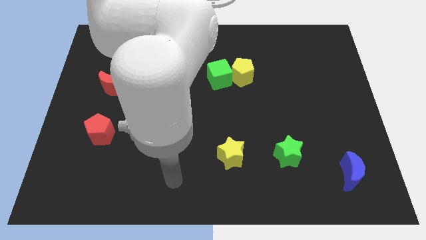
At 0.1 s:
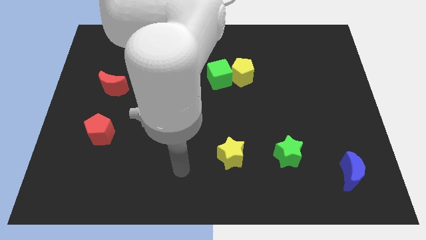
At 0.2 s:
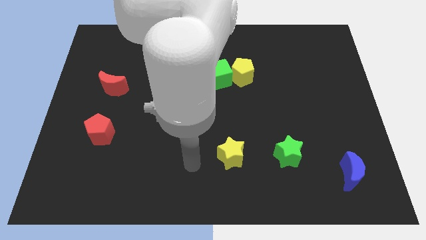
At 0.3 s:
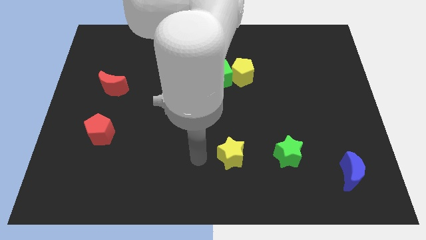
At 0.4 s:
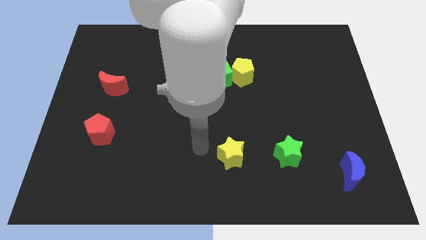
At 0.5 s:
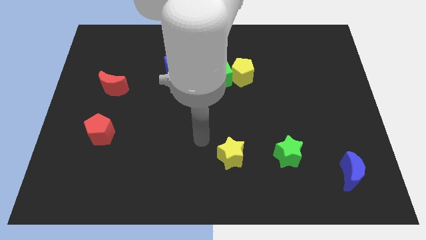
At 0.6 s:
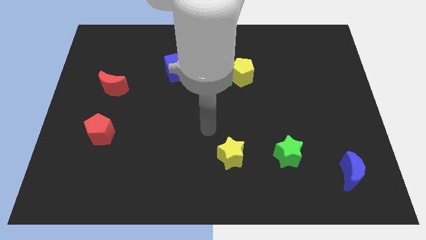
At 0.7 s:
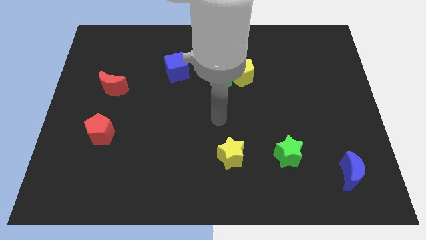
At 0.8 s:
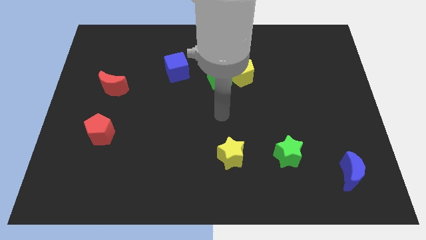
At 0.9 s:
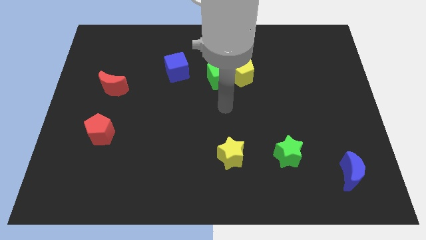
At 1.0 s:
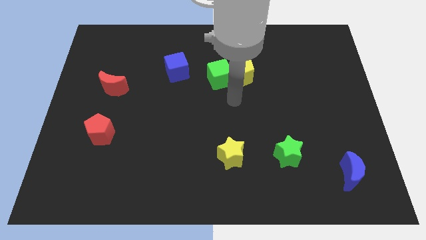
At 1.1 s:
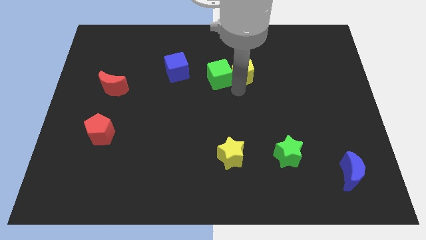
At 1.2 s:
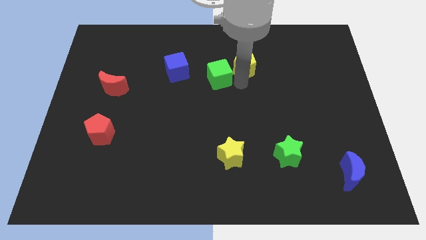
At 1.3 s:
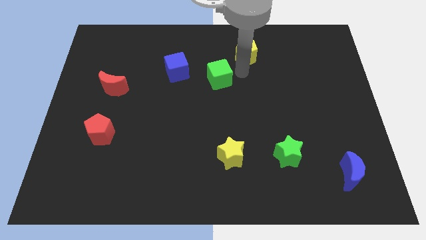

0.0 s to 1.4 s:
pull the green cube apart from the yellow pentagon

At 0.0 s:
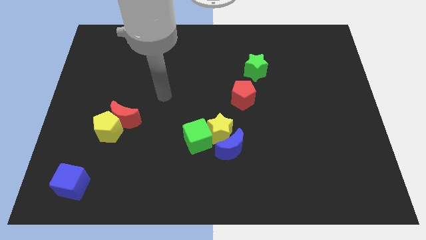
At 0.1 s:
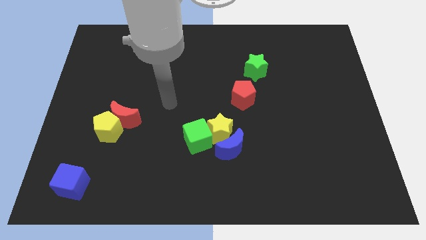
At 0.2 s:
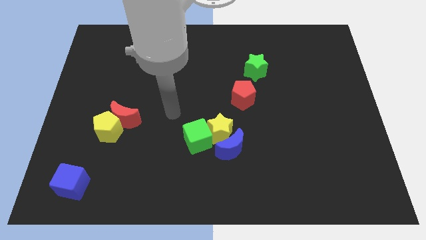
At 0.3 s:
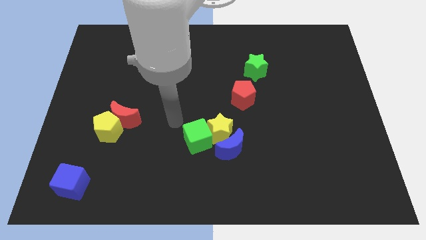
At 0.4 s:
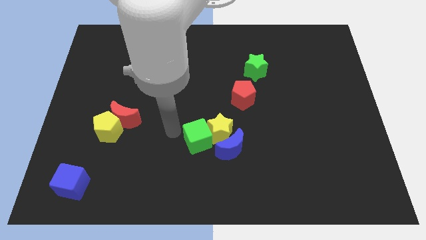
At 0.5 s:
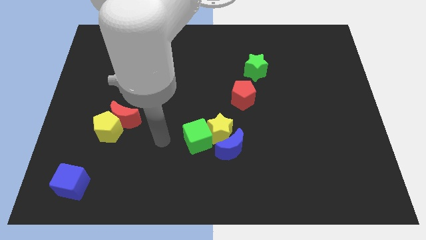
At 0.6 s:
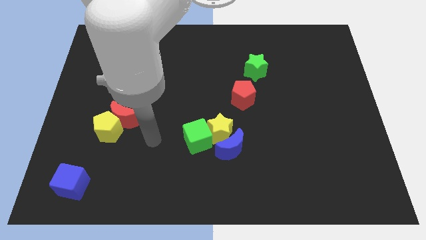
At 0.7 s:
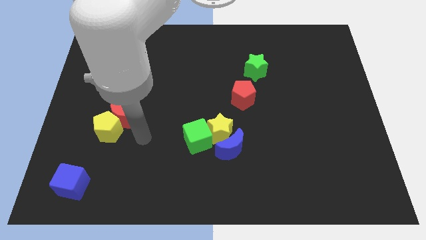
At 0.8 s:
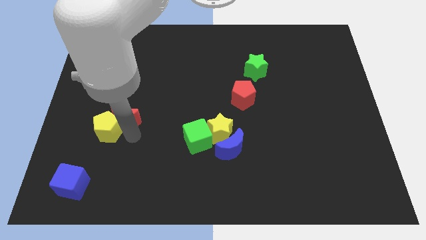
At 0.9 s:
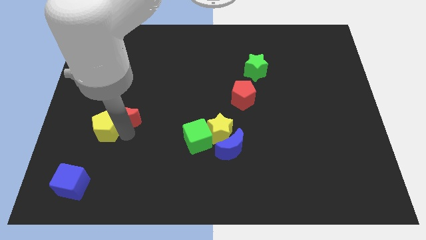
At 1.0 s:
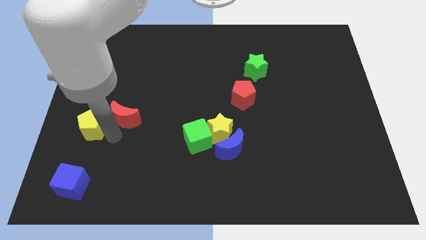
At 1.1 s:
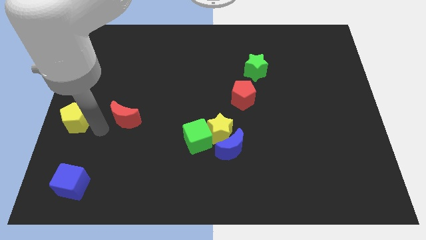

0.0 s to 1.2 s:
move the red moon away from the yellow pentagon

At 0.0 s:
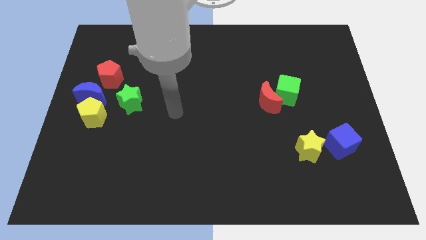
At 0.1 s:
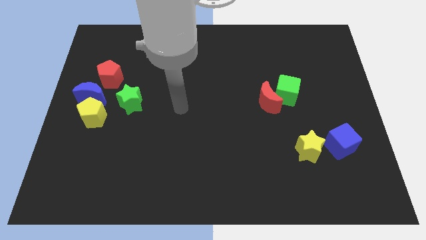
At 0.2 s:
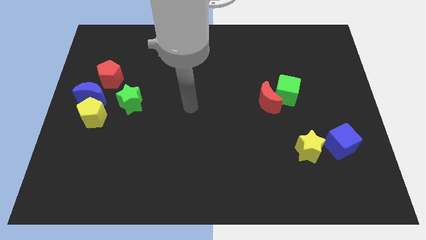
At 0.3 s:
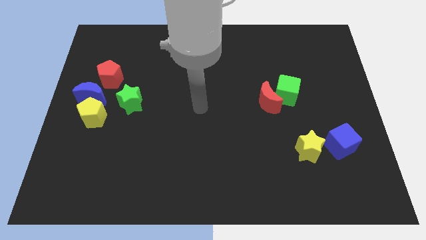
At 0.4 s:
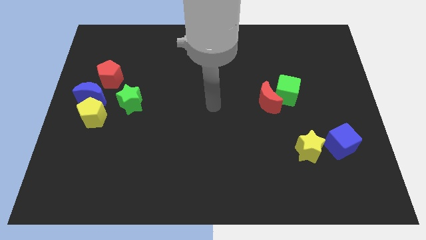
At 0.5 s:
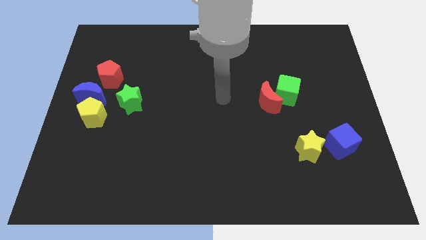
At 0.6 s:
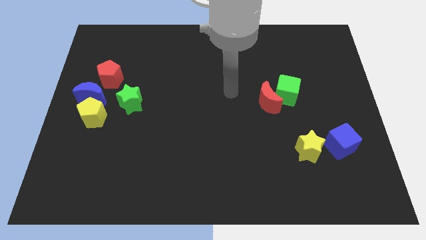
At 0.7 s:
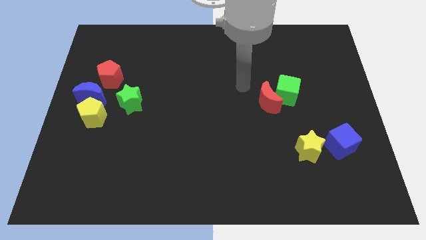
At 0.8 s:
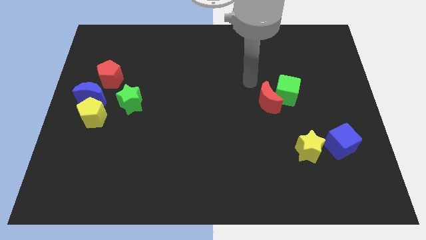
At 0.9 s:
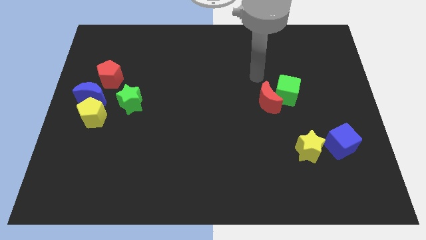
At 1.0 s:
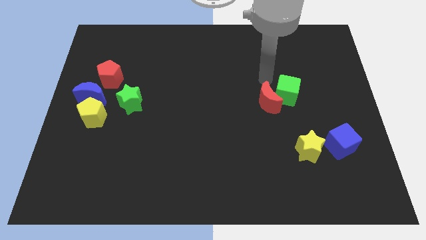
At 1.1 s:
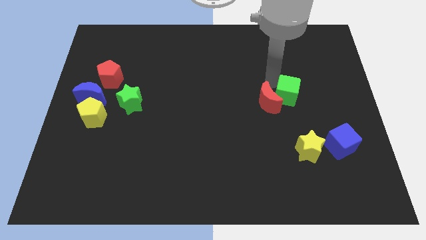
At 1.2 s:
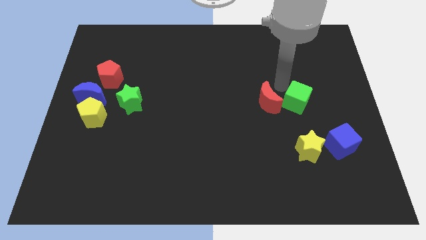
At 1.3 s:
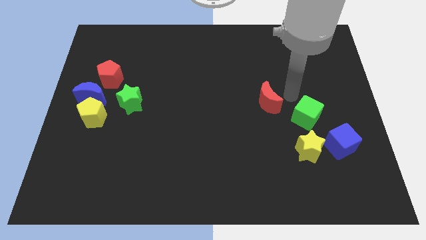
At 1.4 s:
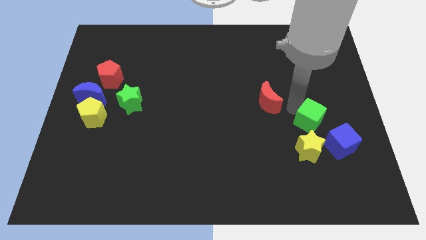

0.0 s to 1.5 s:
move the red moon away from the green cube

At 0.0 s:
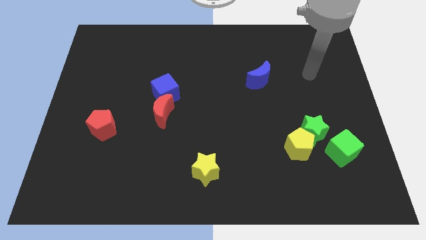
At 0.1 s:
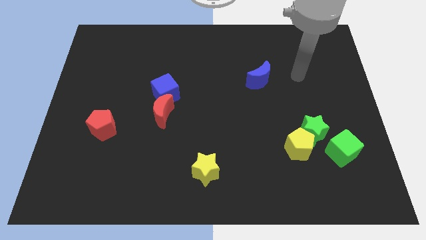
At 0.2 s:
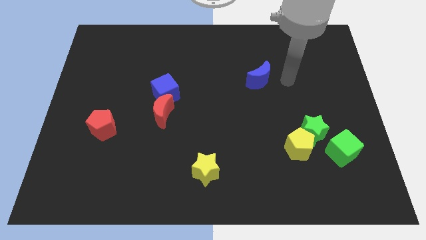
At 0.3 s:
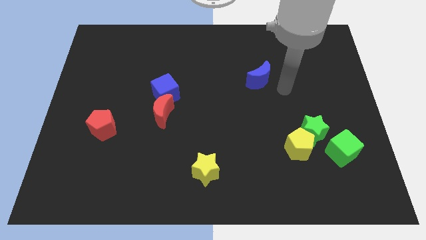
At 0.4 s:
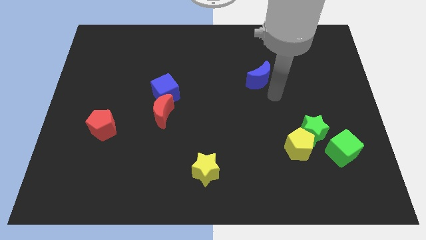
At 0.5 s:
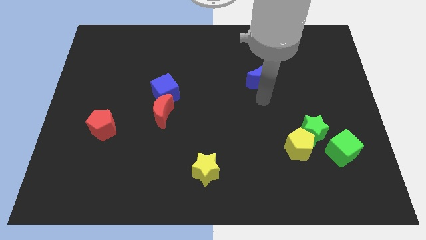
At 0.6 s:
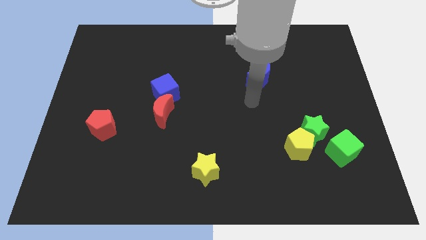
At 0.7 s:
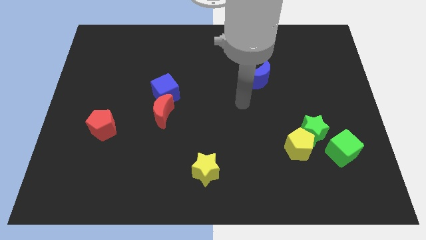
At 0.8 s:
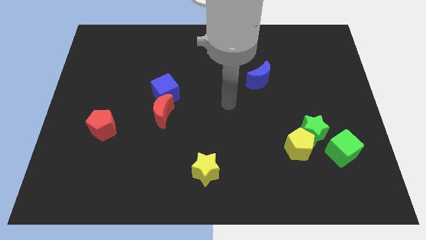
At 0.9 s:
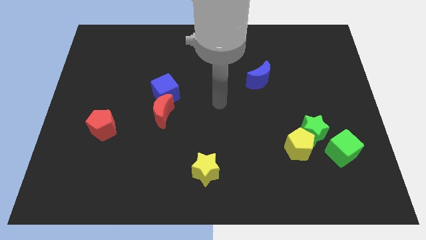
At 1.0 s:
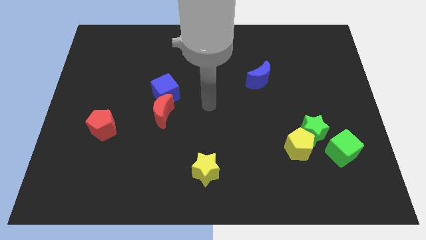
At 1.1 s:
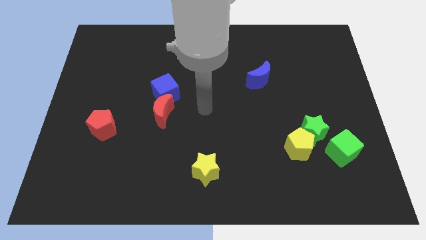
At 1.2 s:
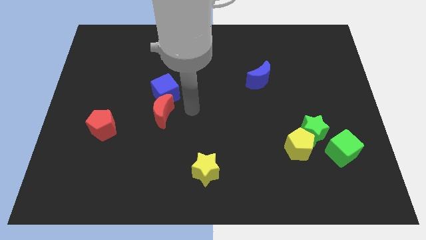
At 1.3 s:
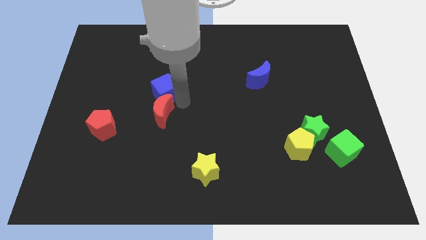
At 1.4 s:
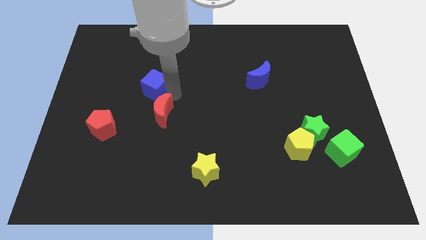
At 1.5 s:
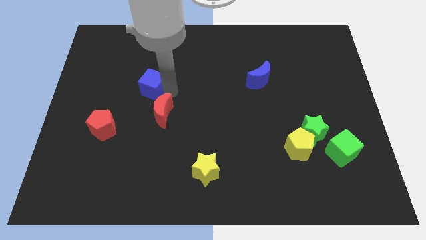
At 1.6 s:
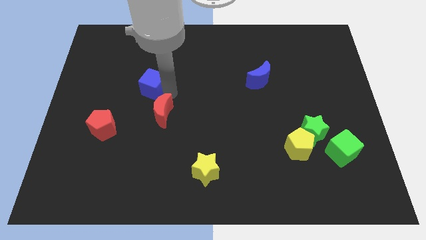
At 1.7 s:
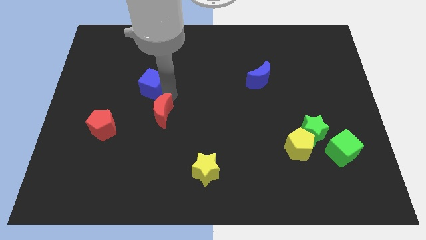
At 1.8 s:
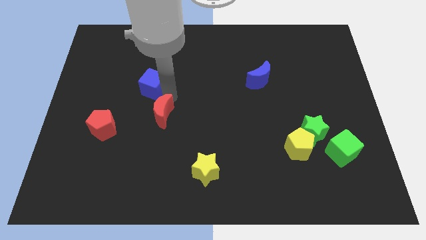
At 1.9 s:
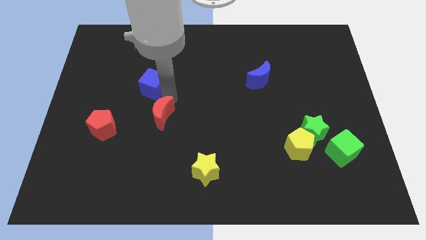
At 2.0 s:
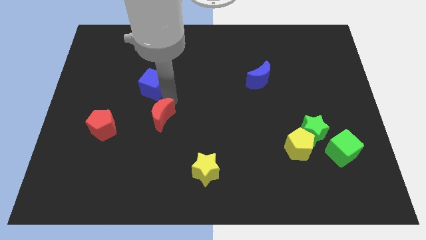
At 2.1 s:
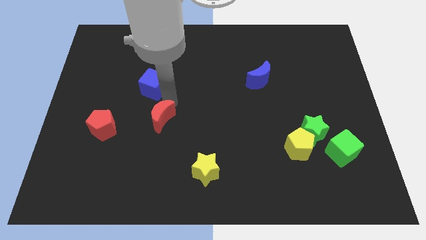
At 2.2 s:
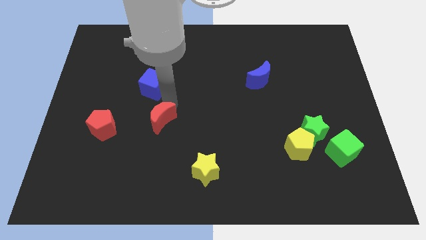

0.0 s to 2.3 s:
separate the red moon from the blue cube

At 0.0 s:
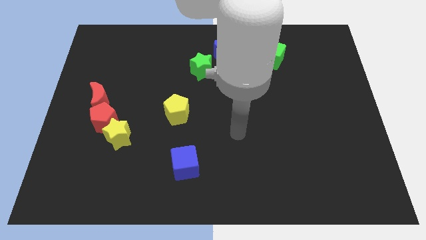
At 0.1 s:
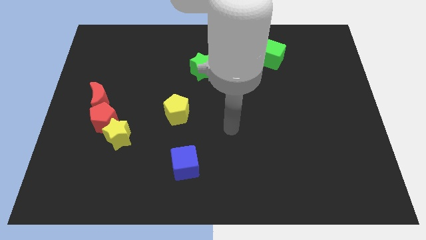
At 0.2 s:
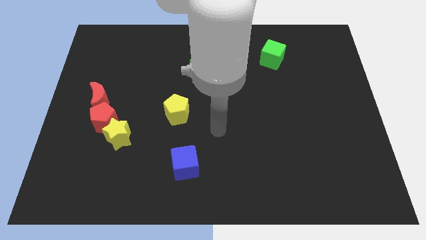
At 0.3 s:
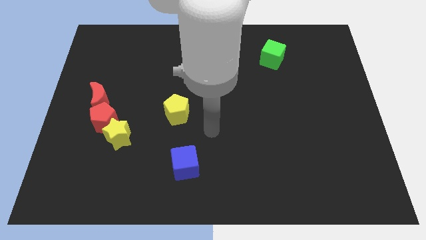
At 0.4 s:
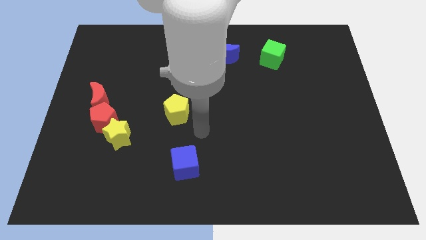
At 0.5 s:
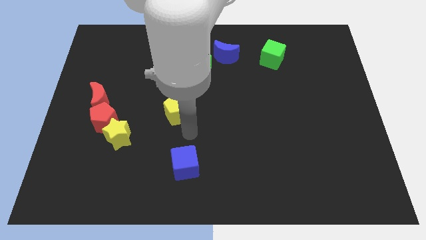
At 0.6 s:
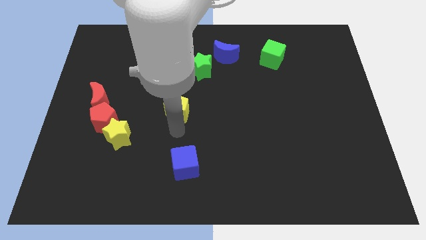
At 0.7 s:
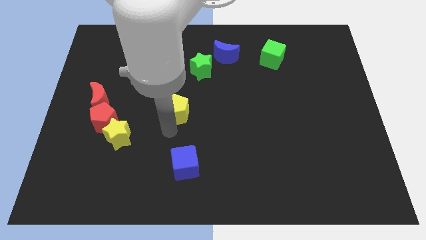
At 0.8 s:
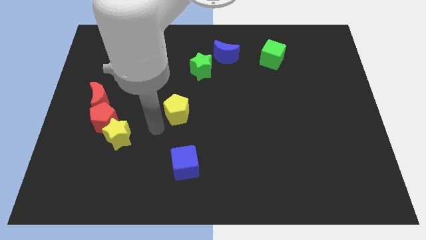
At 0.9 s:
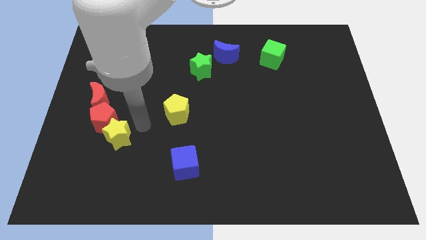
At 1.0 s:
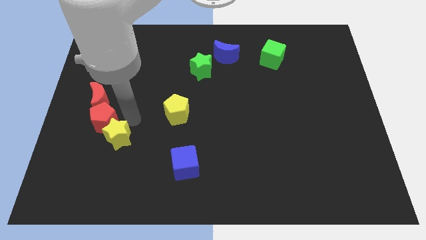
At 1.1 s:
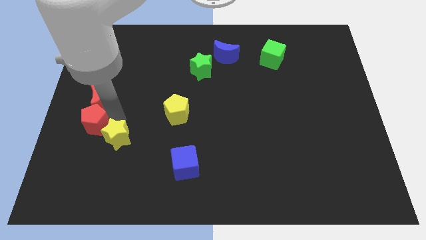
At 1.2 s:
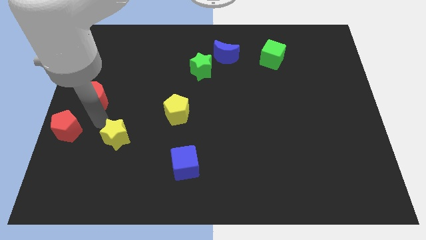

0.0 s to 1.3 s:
pull the yellow star apart from the red pentagon

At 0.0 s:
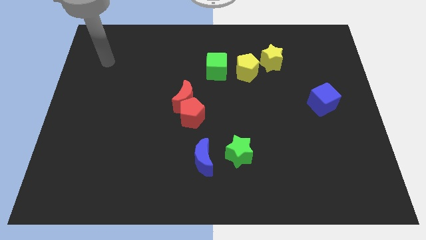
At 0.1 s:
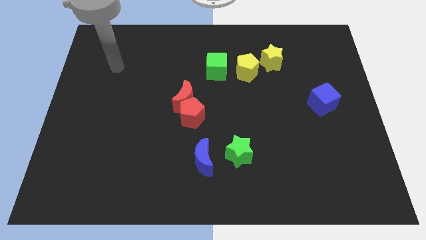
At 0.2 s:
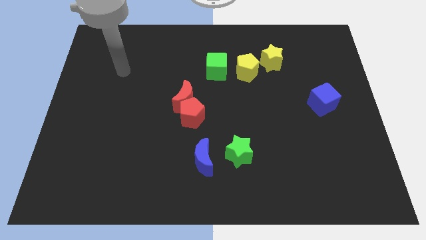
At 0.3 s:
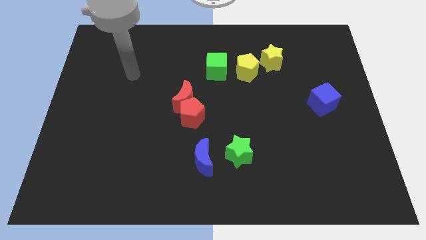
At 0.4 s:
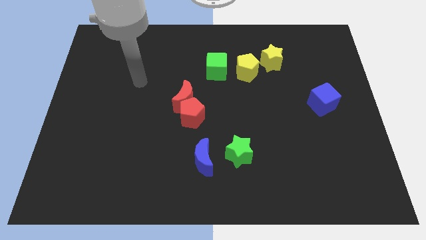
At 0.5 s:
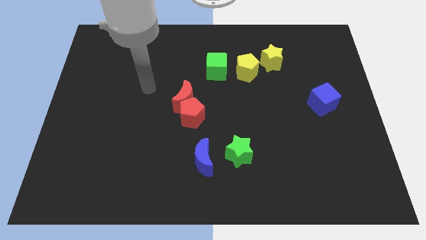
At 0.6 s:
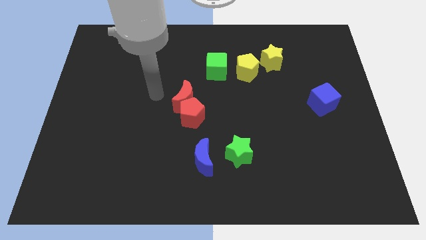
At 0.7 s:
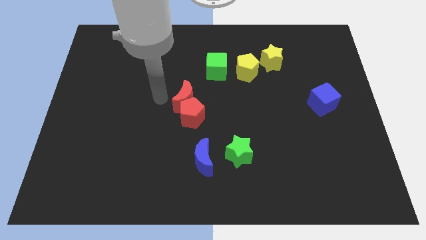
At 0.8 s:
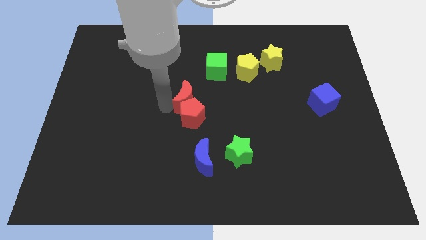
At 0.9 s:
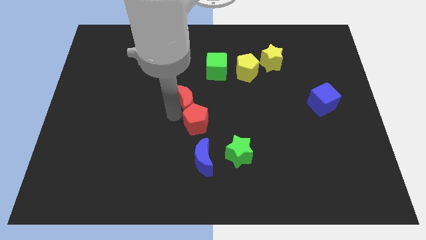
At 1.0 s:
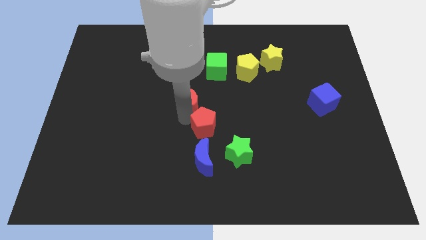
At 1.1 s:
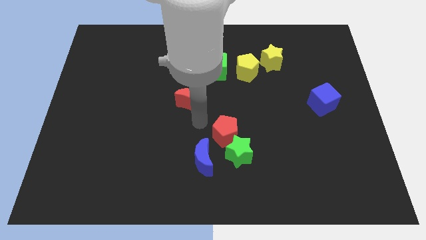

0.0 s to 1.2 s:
pull the red moon apart from the red pentagon

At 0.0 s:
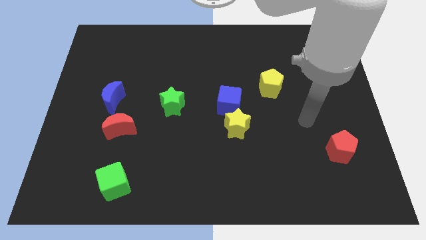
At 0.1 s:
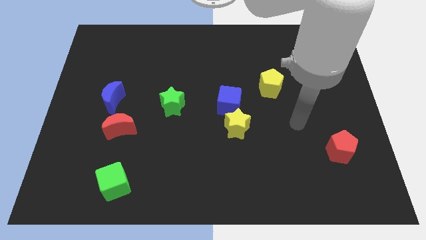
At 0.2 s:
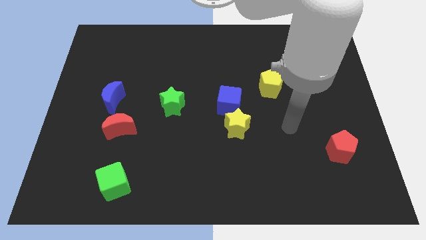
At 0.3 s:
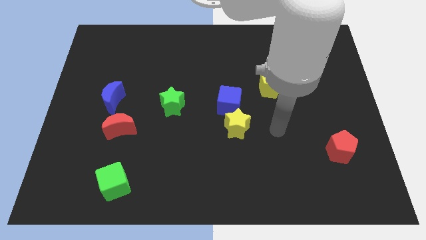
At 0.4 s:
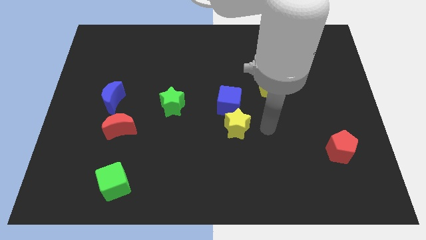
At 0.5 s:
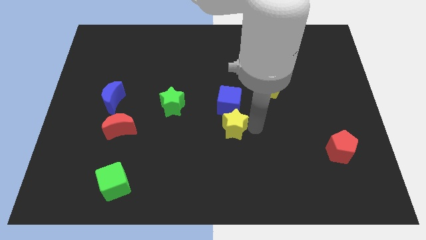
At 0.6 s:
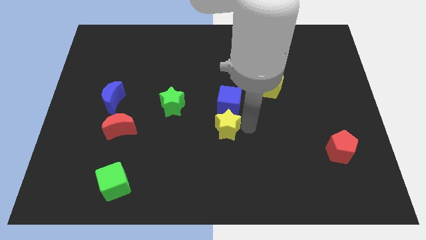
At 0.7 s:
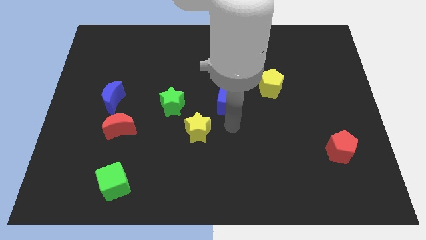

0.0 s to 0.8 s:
move the blue cube away from the yellow star
